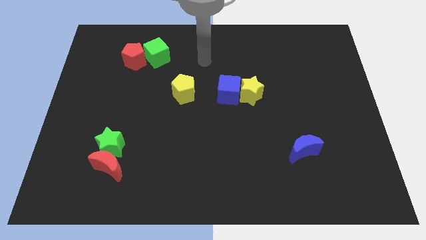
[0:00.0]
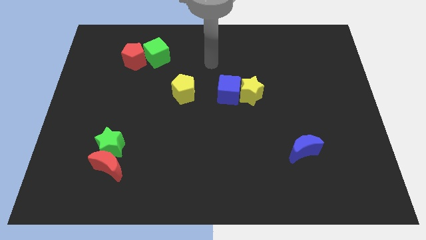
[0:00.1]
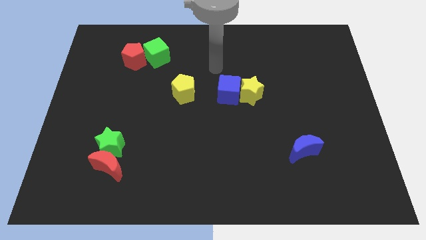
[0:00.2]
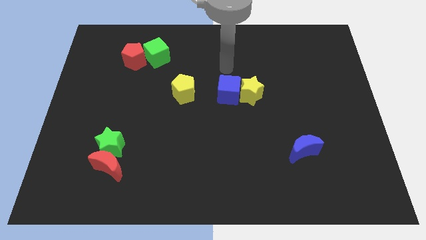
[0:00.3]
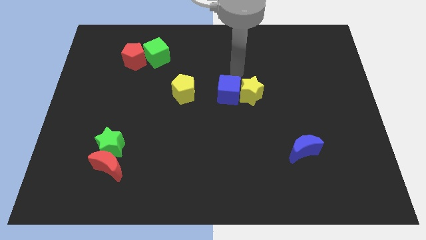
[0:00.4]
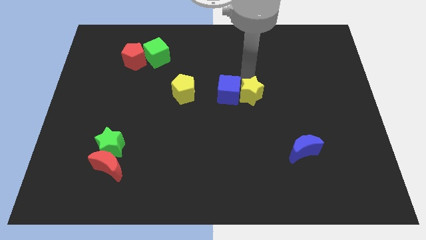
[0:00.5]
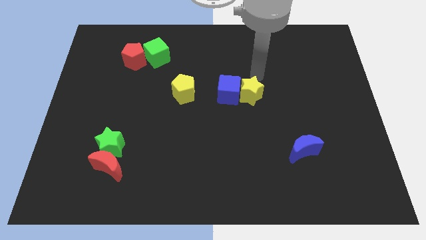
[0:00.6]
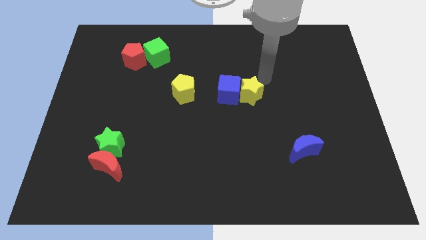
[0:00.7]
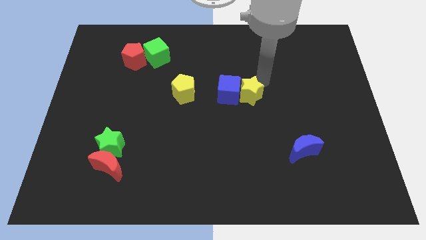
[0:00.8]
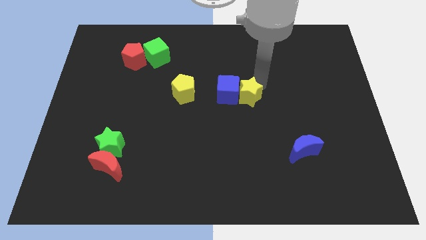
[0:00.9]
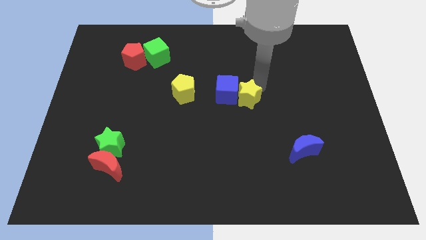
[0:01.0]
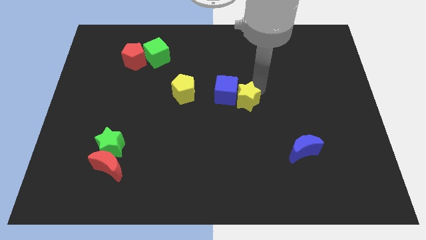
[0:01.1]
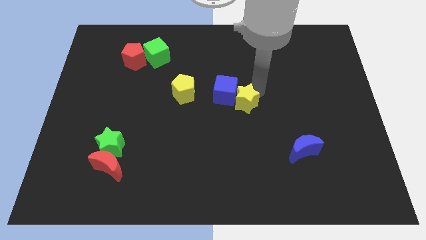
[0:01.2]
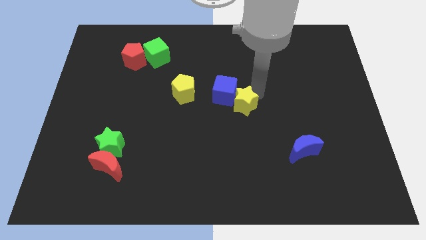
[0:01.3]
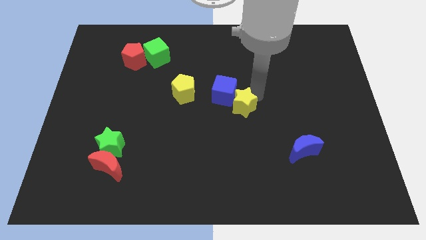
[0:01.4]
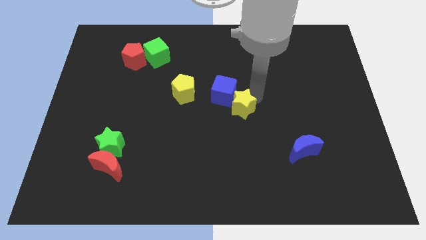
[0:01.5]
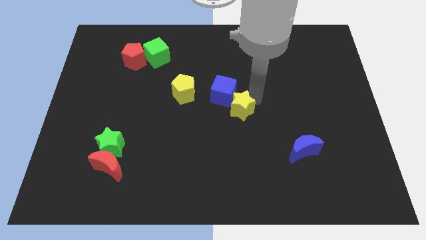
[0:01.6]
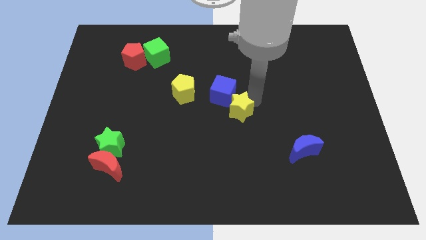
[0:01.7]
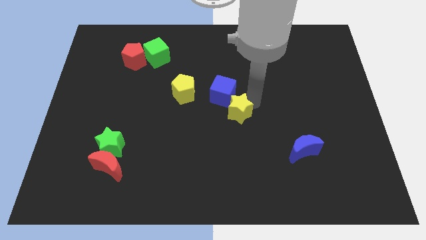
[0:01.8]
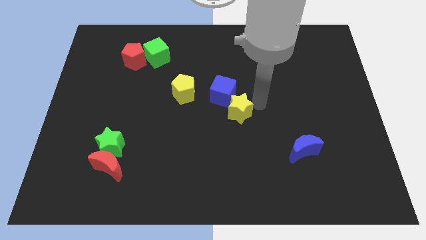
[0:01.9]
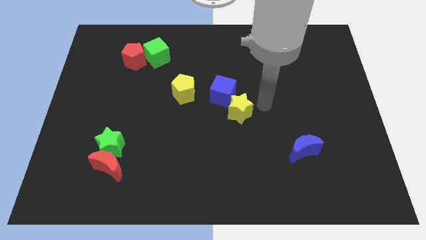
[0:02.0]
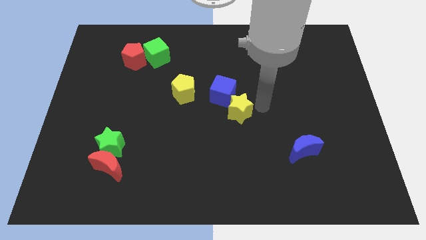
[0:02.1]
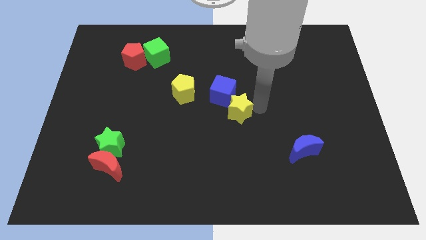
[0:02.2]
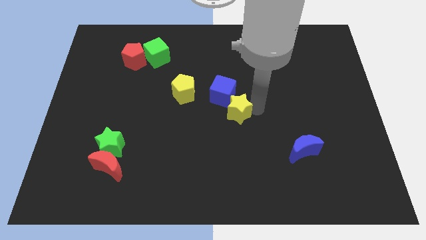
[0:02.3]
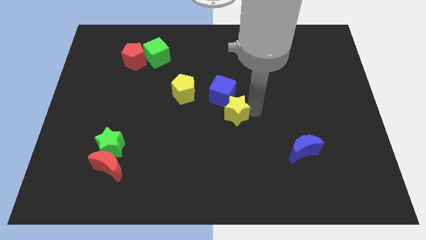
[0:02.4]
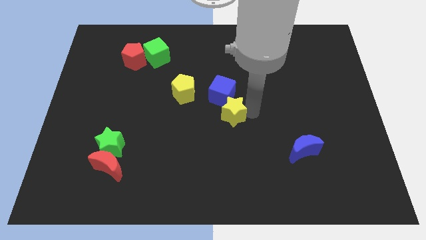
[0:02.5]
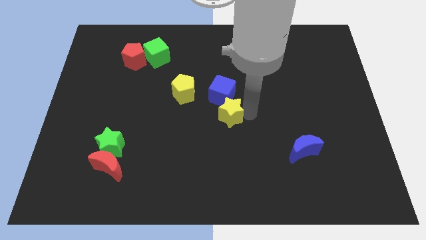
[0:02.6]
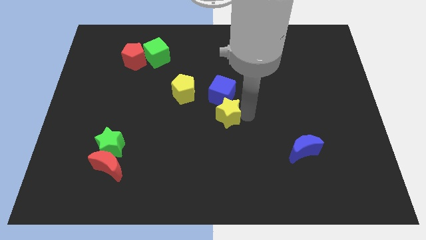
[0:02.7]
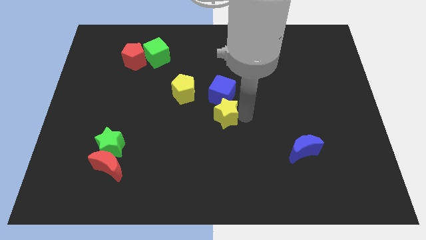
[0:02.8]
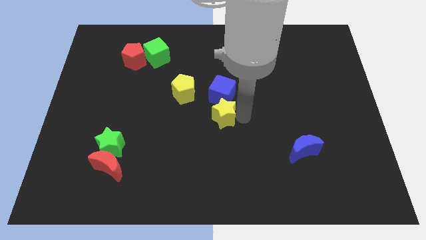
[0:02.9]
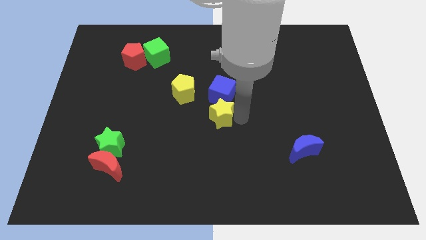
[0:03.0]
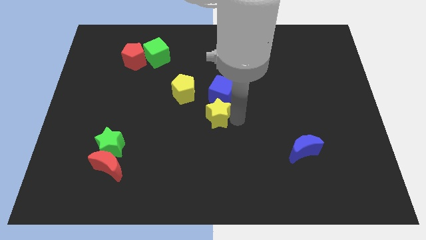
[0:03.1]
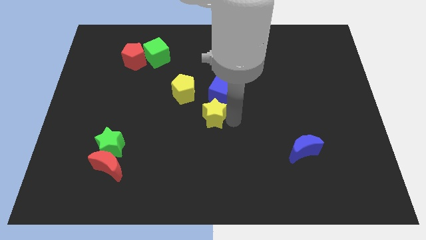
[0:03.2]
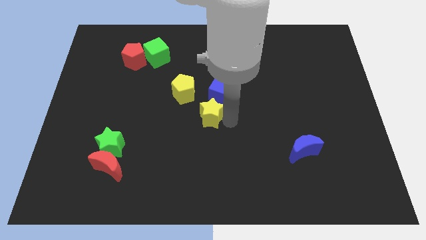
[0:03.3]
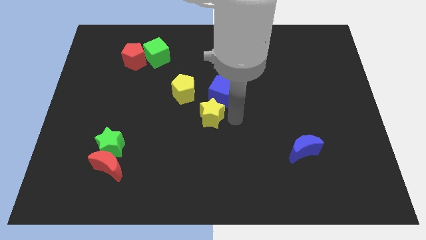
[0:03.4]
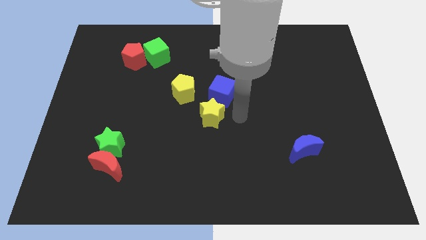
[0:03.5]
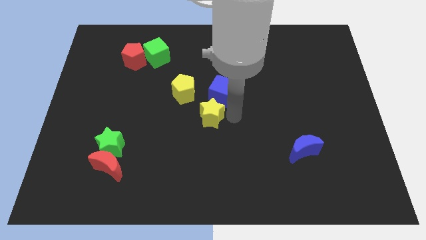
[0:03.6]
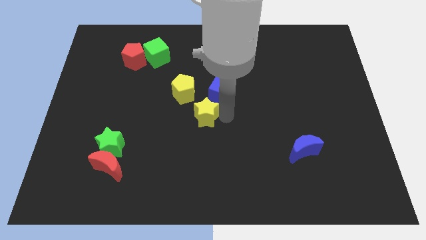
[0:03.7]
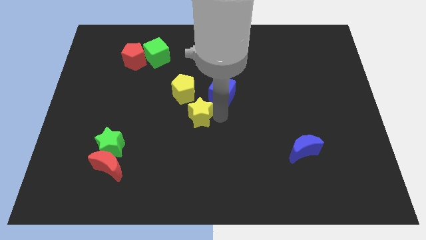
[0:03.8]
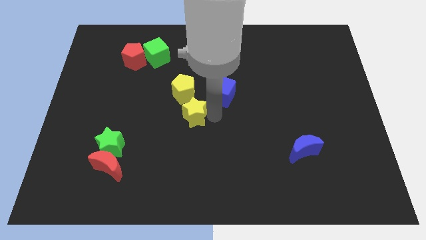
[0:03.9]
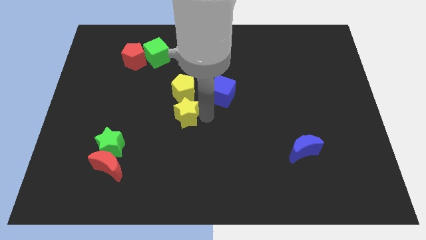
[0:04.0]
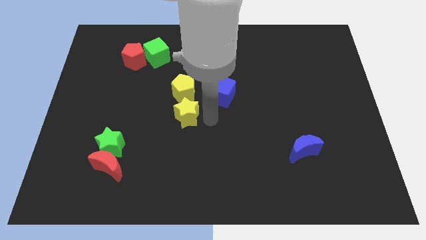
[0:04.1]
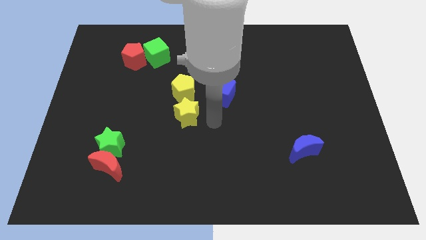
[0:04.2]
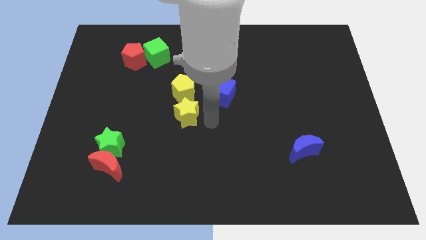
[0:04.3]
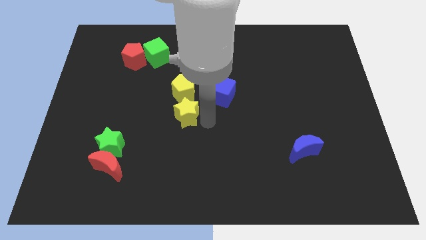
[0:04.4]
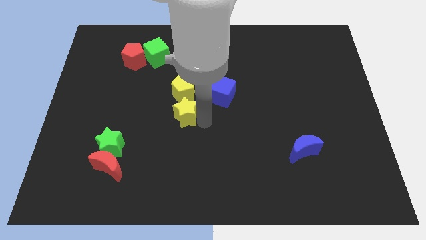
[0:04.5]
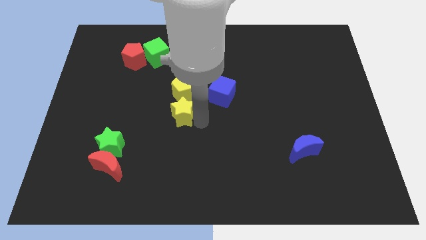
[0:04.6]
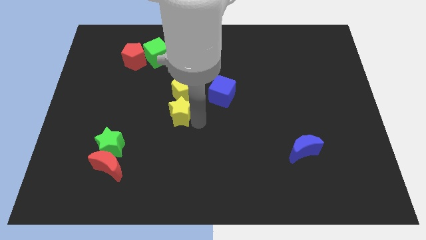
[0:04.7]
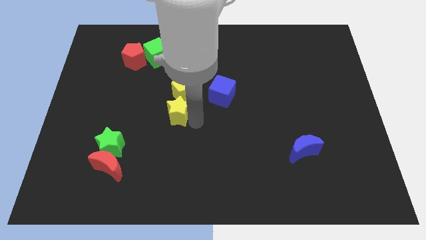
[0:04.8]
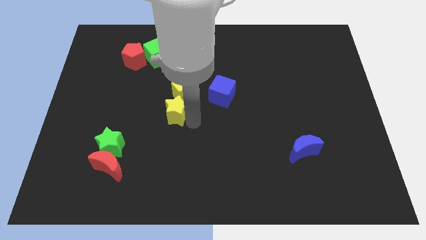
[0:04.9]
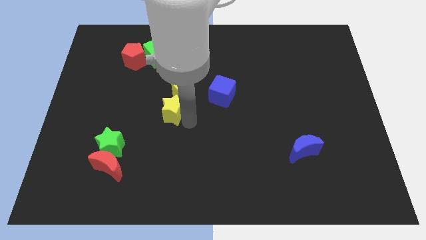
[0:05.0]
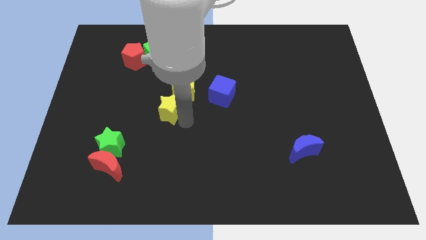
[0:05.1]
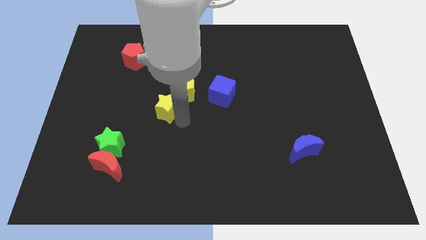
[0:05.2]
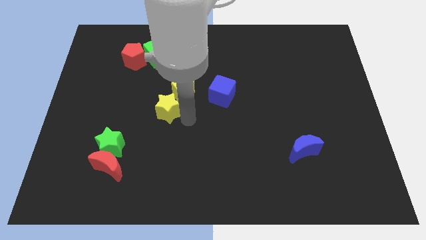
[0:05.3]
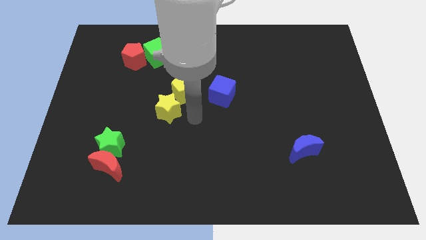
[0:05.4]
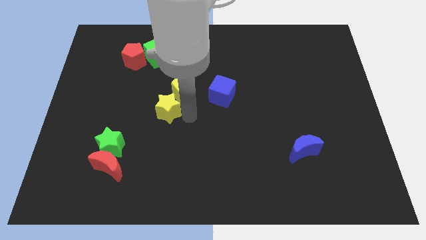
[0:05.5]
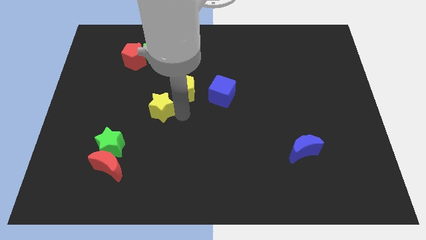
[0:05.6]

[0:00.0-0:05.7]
push the yellow star left

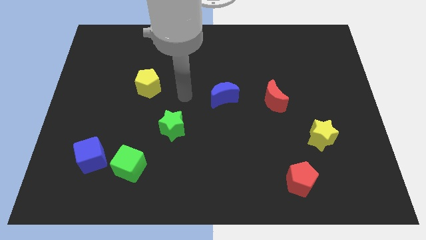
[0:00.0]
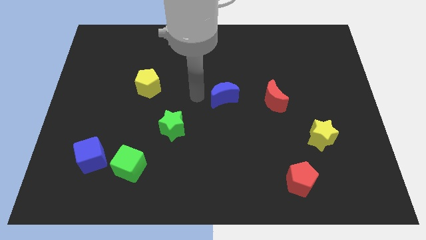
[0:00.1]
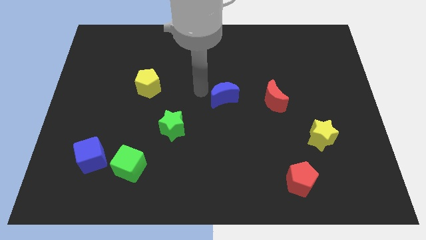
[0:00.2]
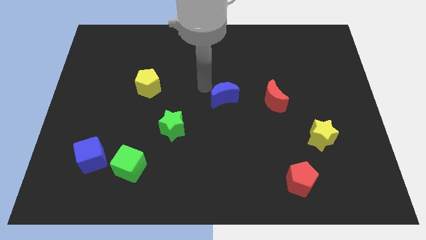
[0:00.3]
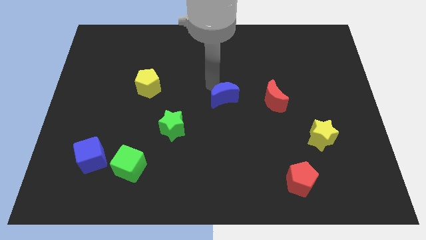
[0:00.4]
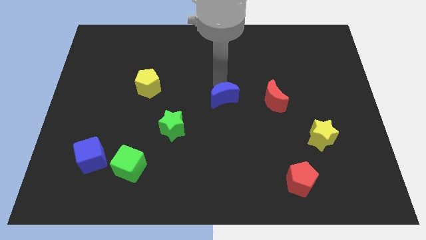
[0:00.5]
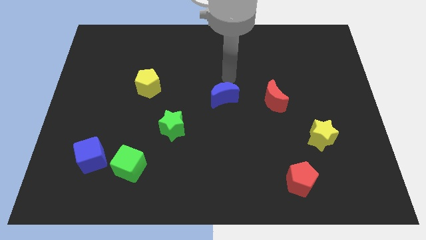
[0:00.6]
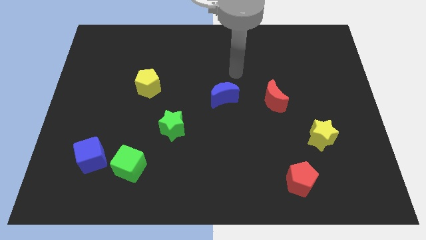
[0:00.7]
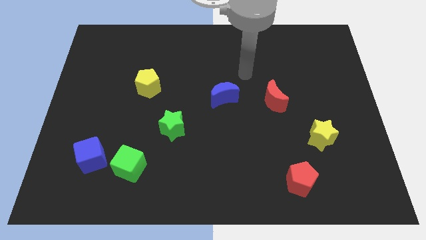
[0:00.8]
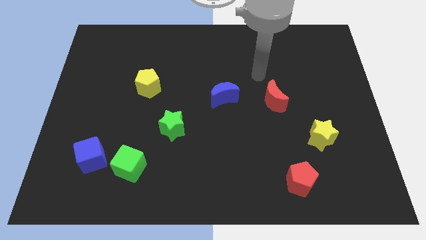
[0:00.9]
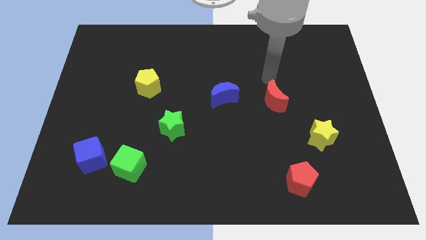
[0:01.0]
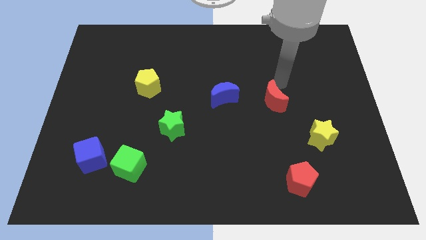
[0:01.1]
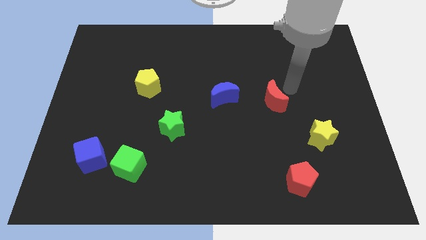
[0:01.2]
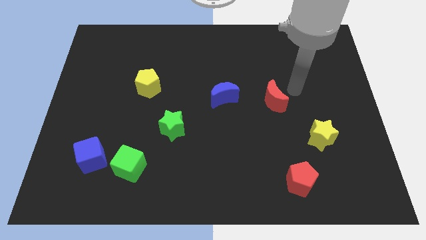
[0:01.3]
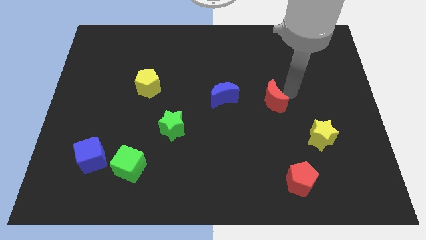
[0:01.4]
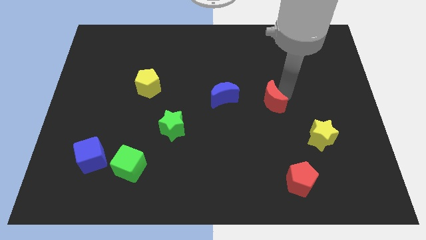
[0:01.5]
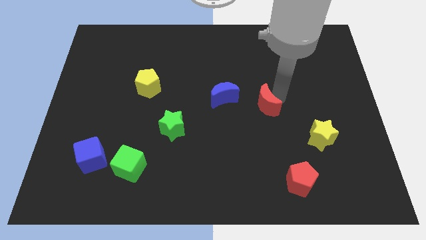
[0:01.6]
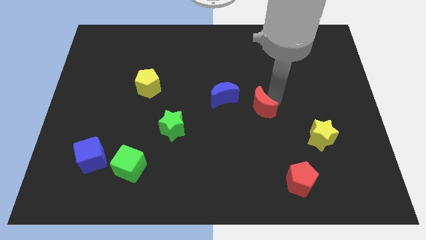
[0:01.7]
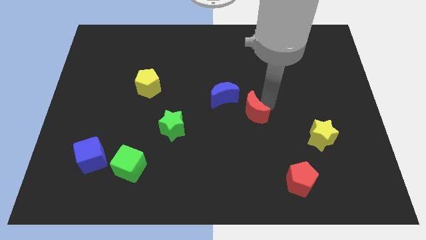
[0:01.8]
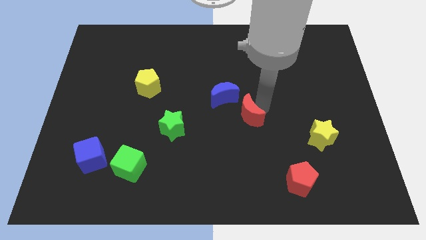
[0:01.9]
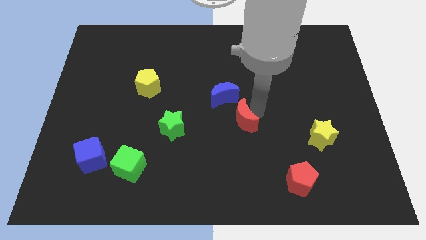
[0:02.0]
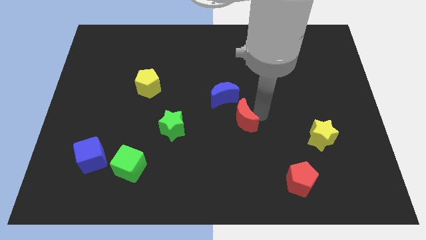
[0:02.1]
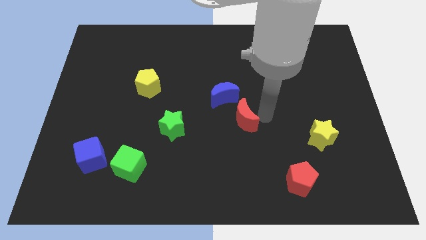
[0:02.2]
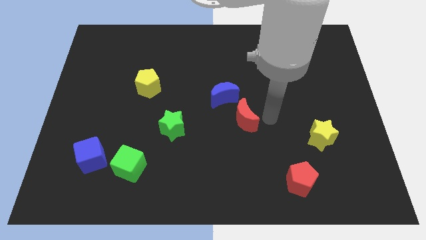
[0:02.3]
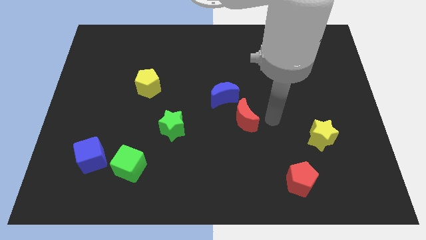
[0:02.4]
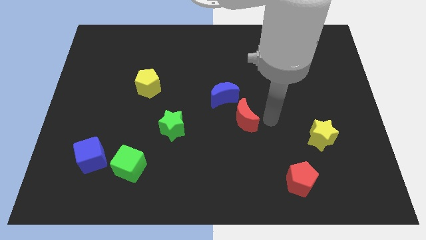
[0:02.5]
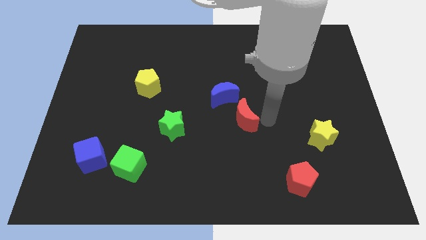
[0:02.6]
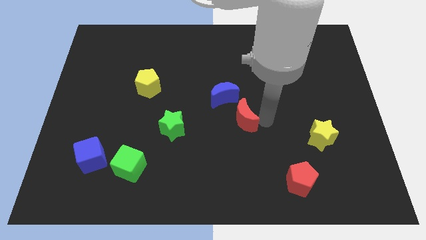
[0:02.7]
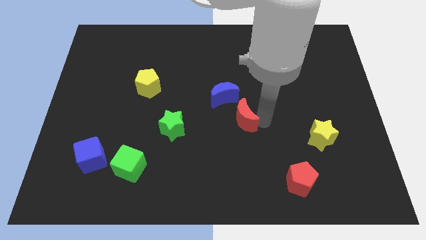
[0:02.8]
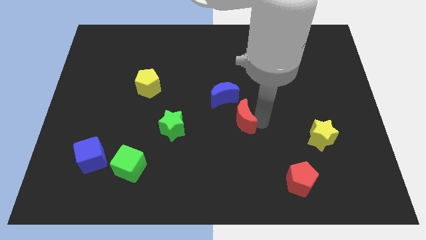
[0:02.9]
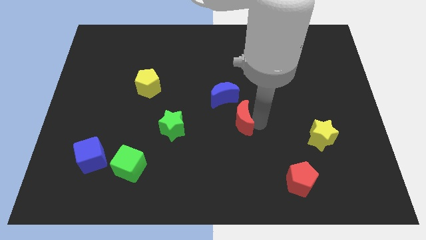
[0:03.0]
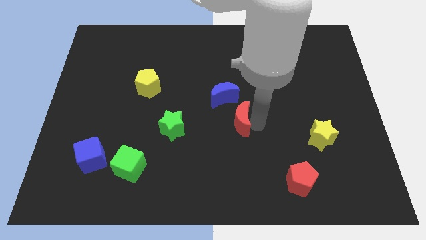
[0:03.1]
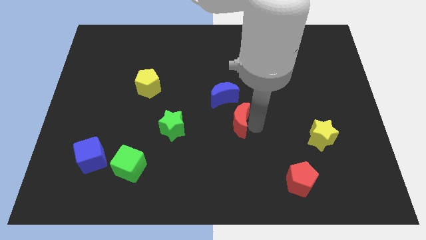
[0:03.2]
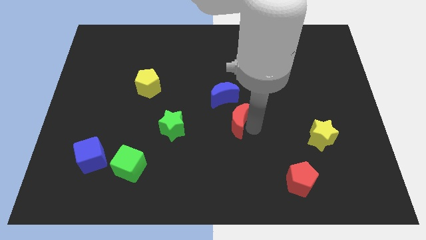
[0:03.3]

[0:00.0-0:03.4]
slide the red moon left somewhat
